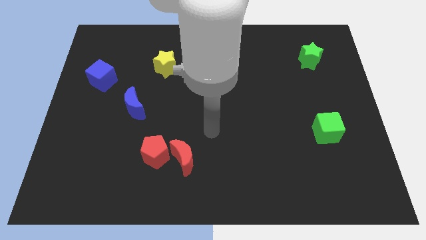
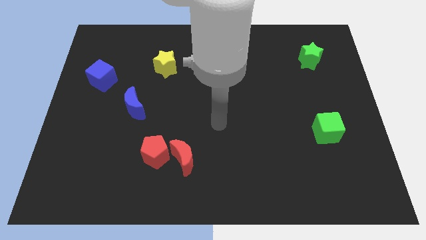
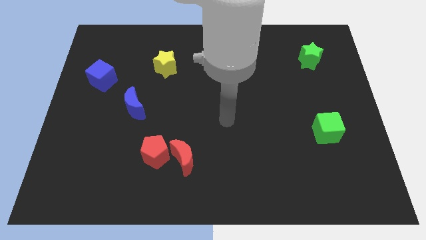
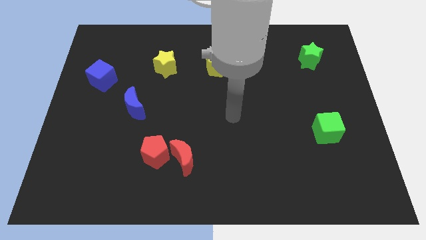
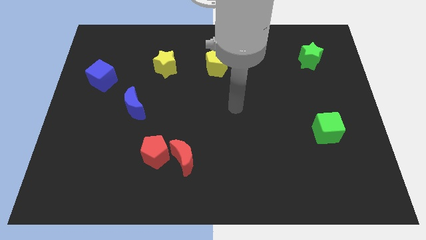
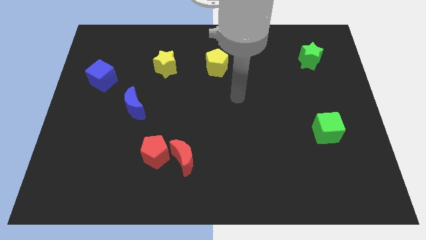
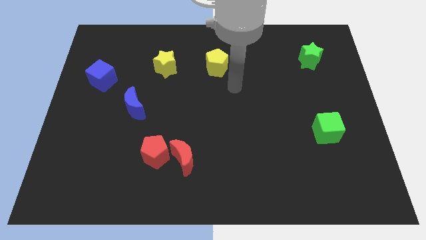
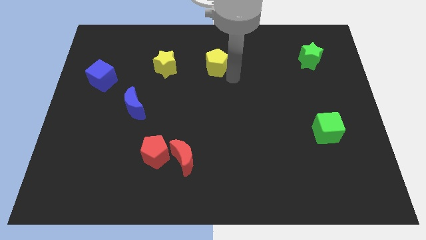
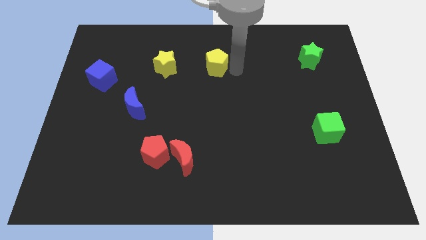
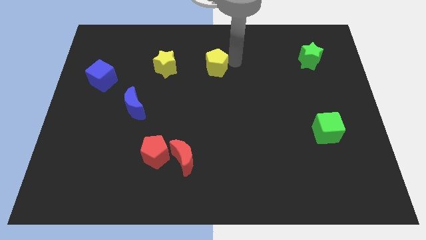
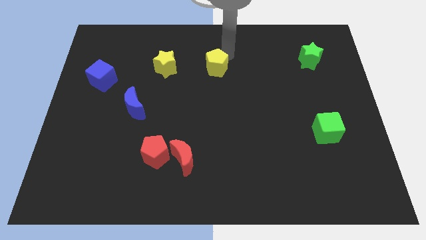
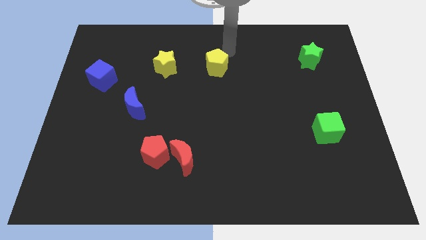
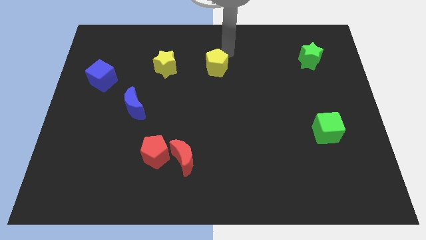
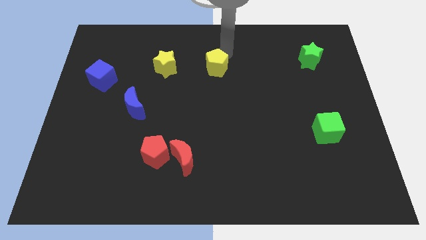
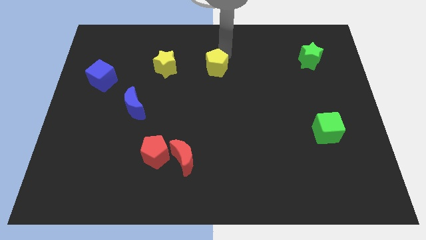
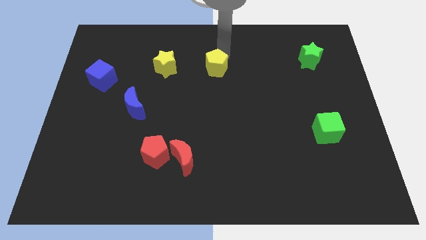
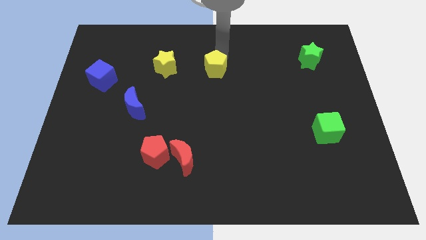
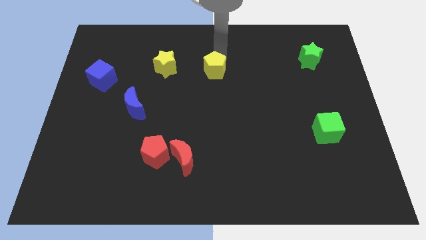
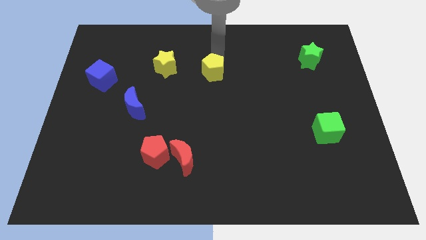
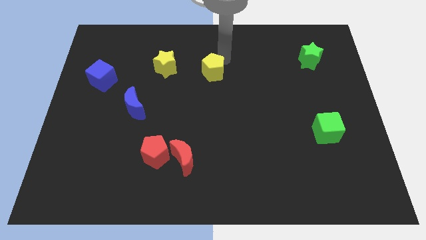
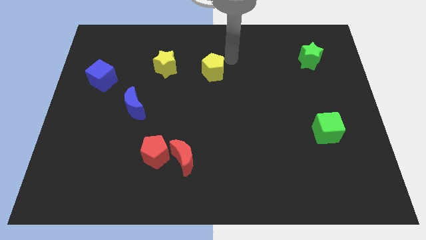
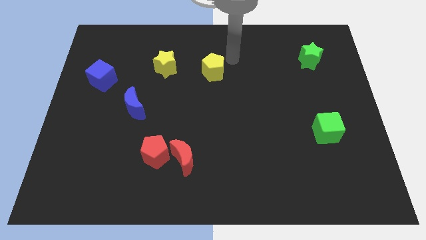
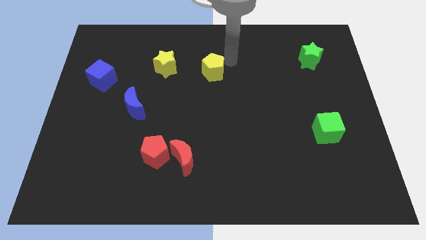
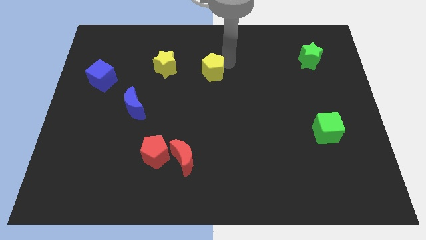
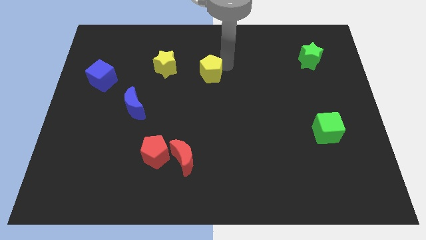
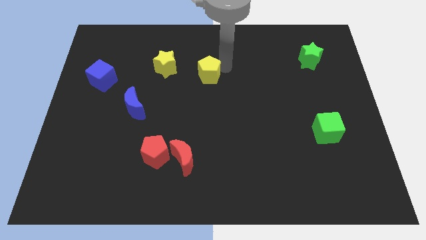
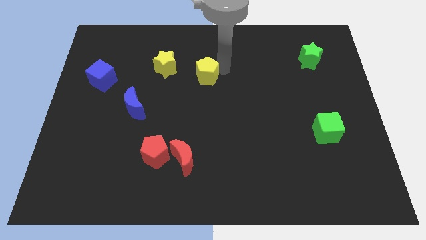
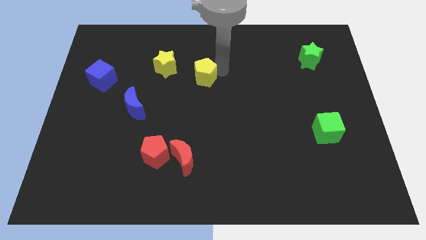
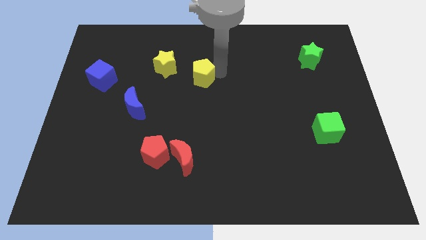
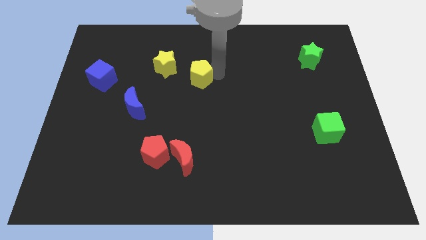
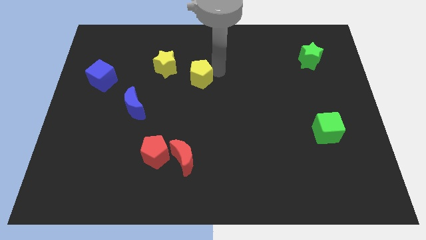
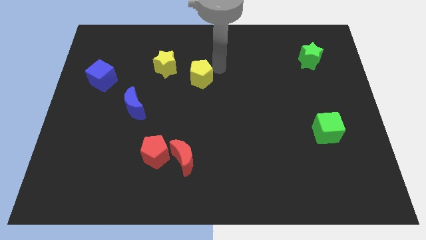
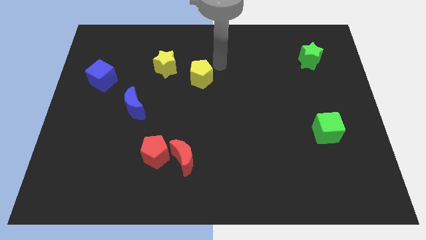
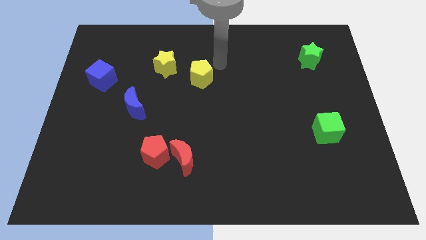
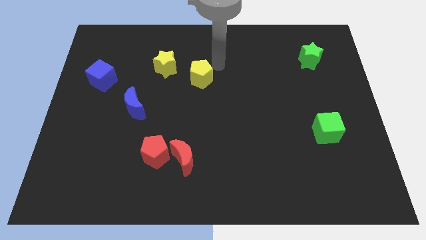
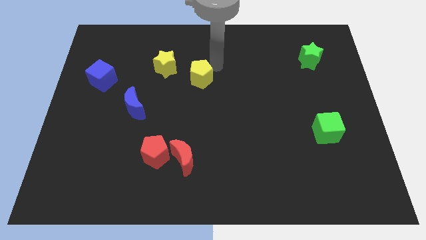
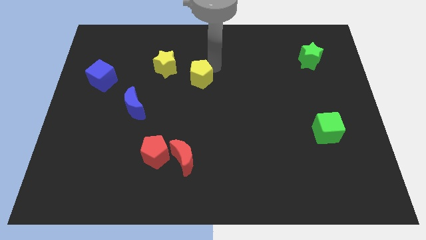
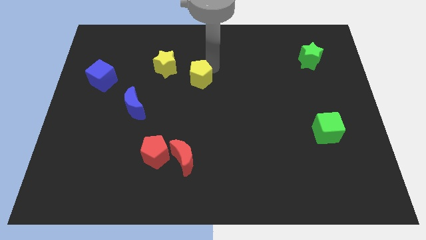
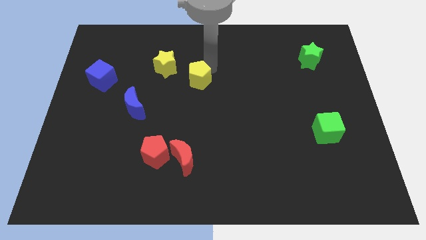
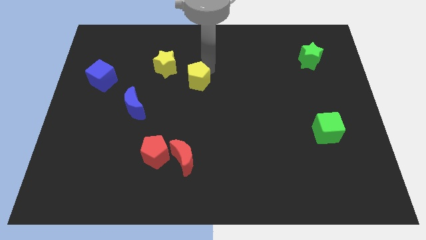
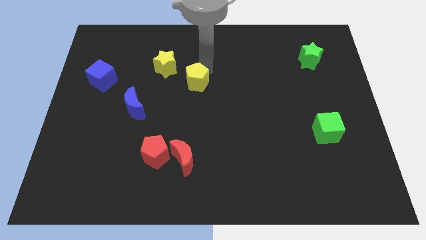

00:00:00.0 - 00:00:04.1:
slide the yellow pentagon a little down and left diagonally

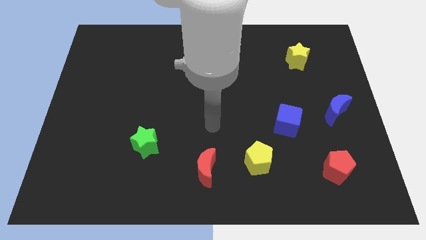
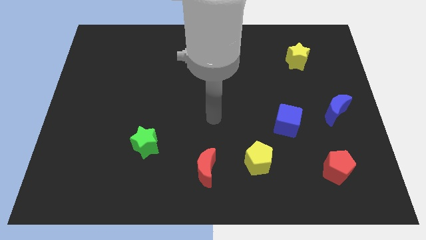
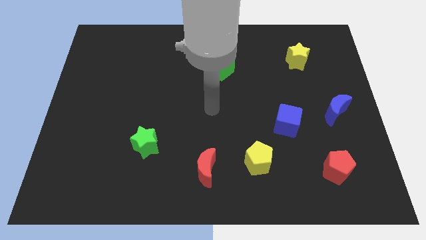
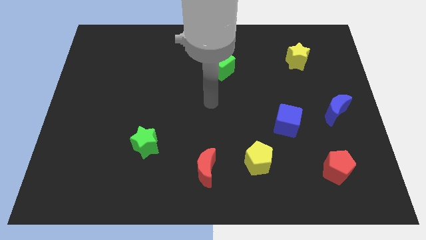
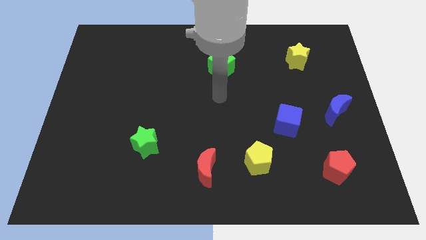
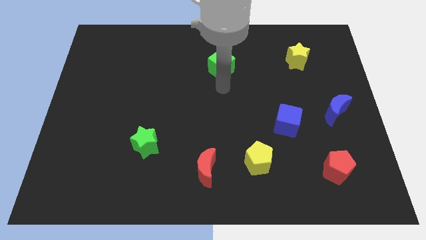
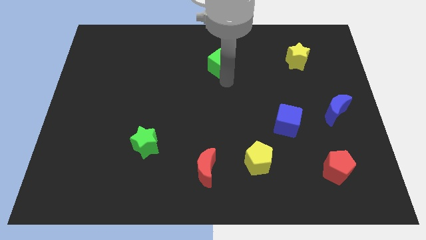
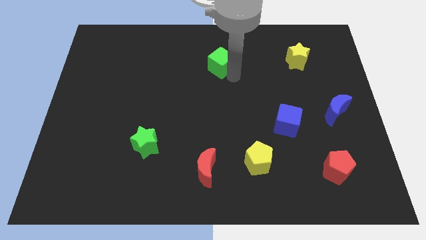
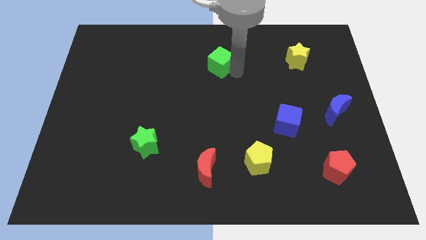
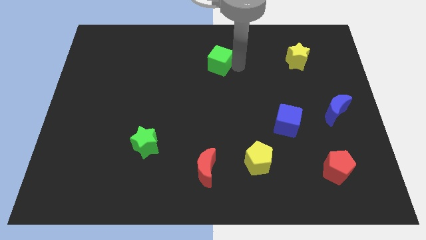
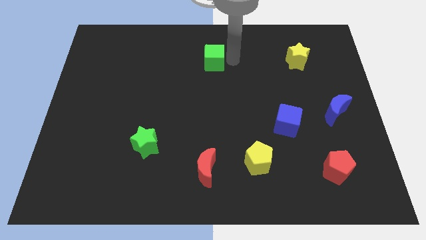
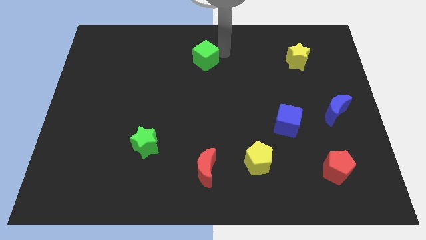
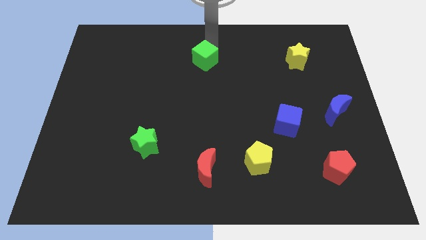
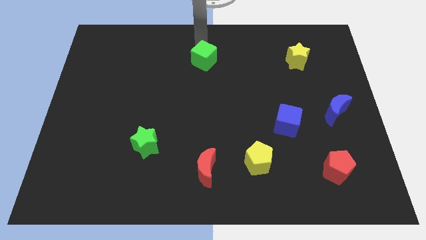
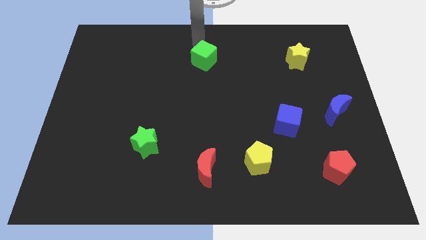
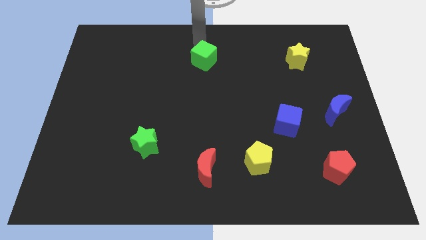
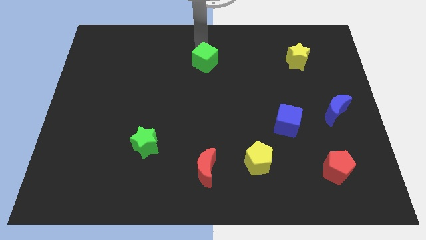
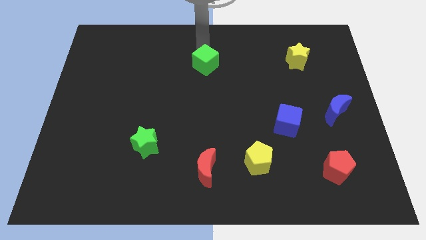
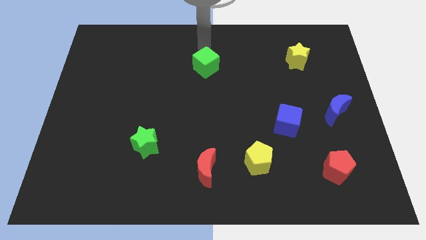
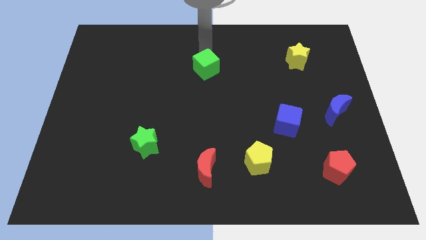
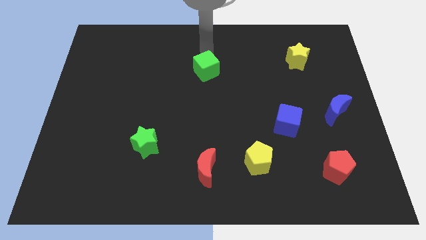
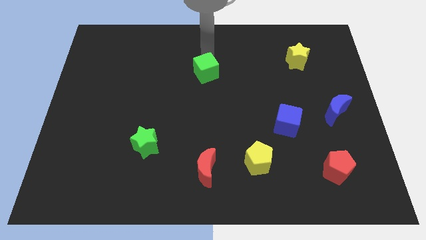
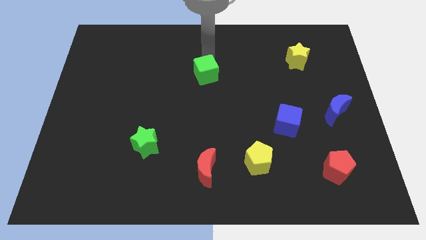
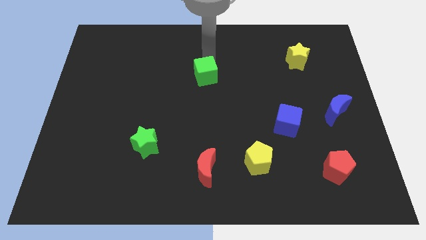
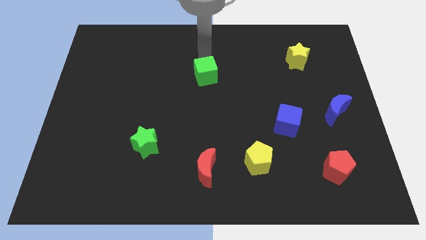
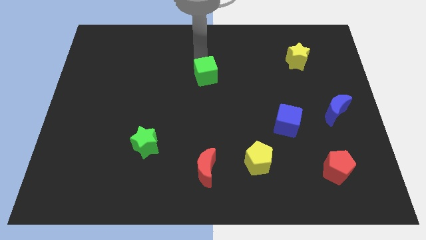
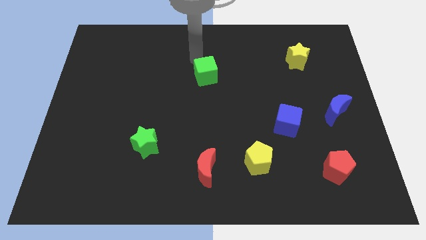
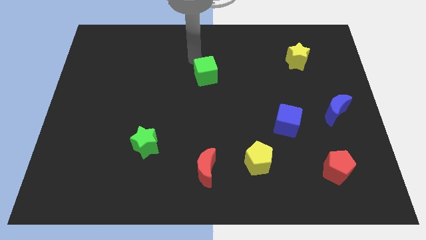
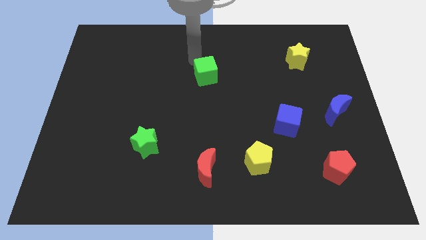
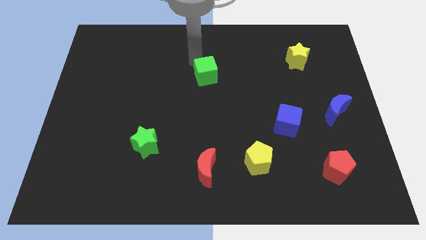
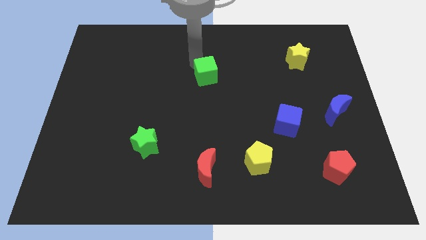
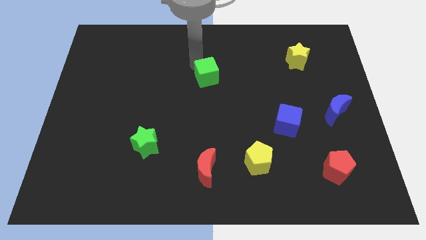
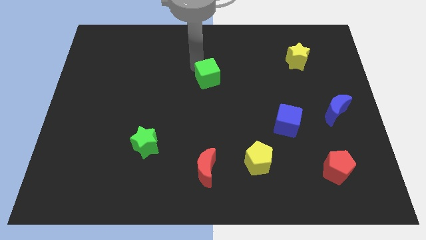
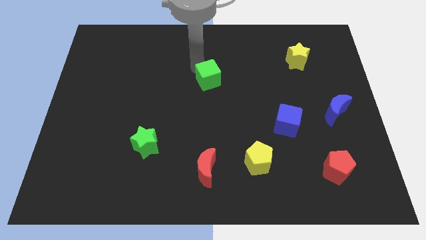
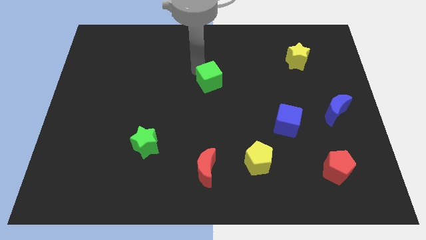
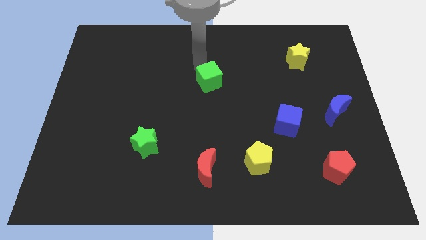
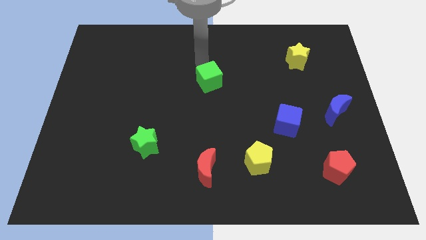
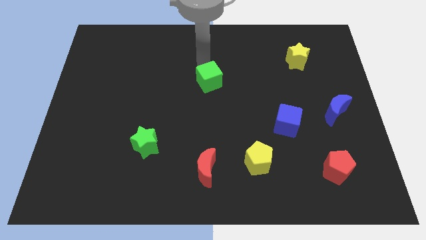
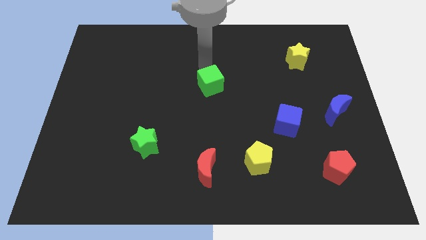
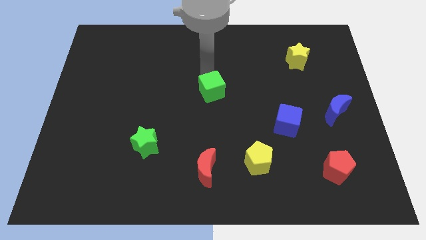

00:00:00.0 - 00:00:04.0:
move the green cube a little bit down
